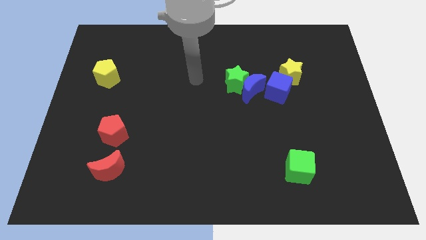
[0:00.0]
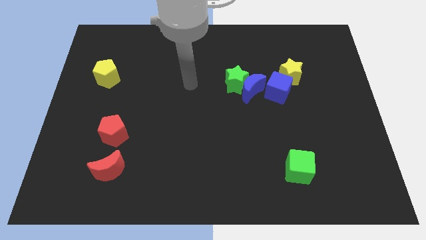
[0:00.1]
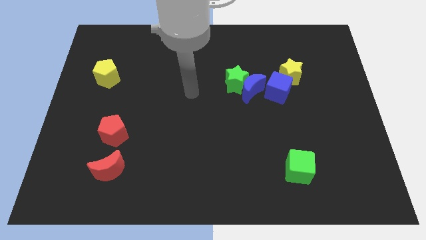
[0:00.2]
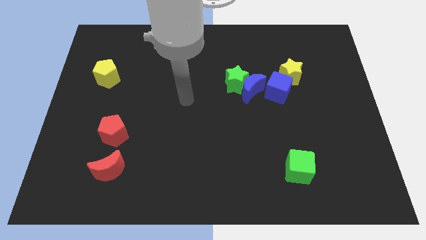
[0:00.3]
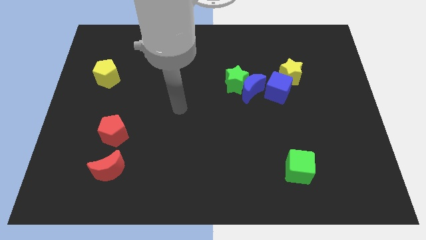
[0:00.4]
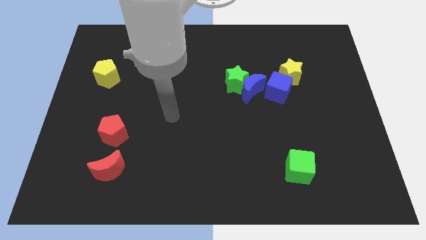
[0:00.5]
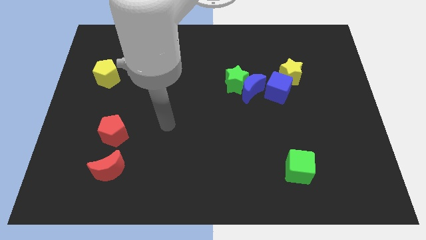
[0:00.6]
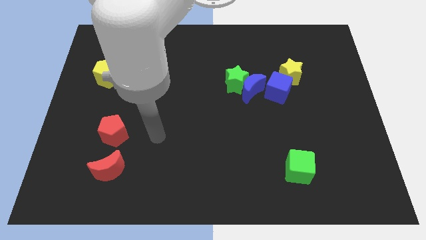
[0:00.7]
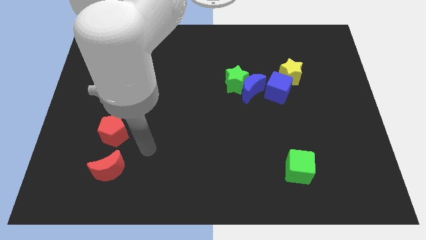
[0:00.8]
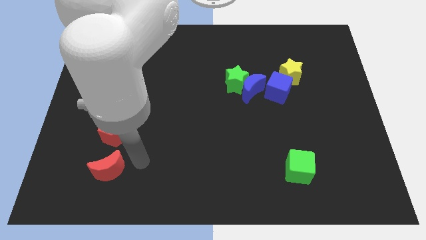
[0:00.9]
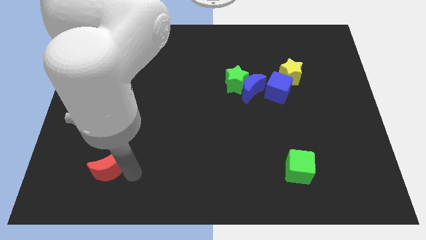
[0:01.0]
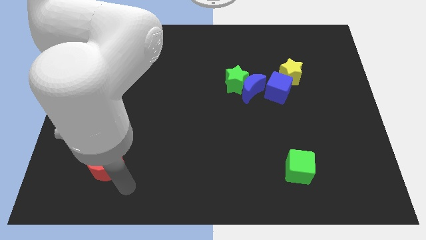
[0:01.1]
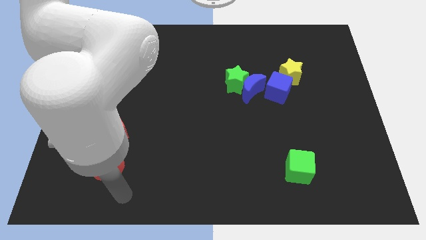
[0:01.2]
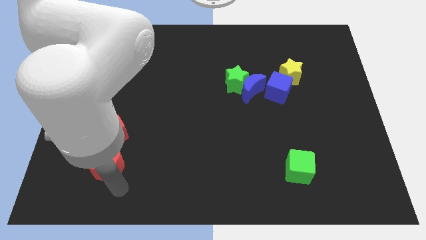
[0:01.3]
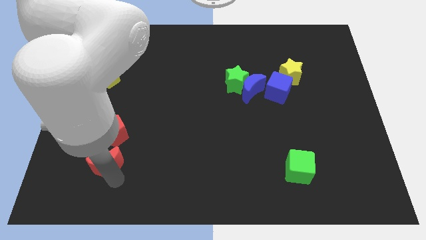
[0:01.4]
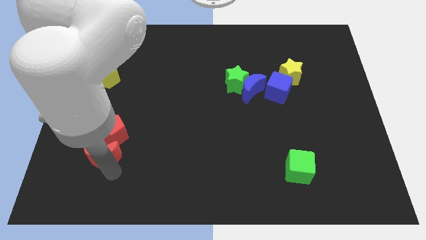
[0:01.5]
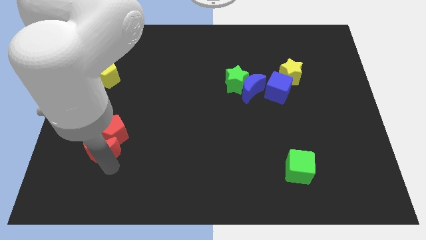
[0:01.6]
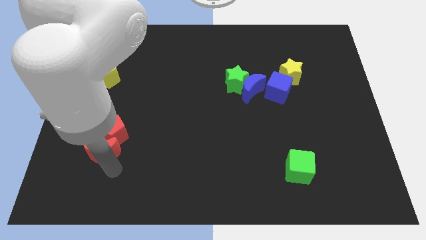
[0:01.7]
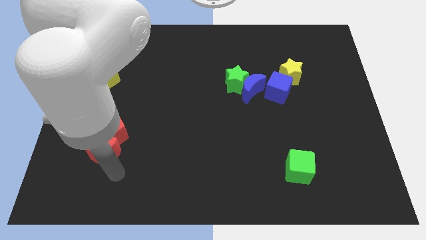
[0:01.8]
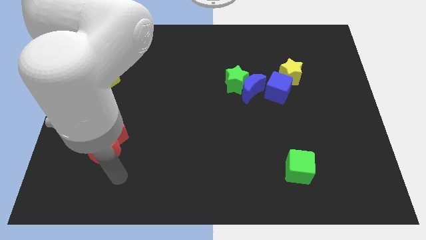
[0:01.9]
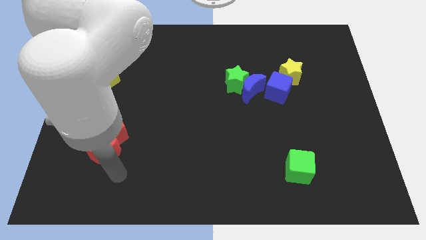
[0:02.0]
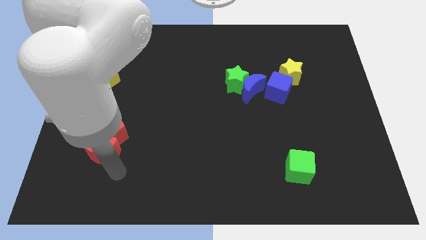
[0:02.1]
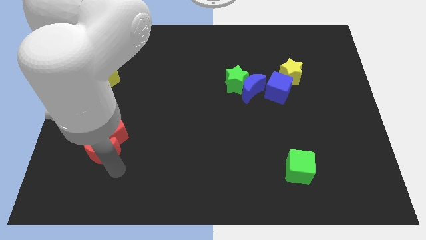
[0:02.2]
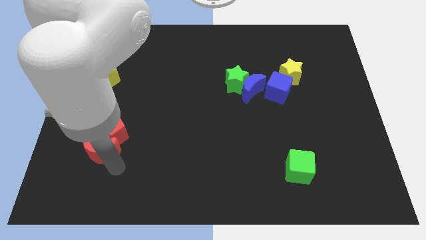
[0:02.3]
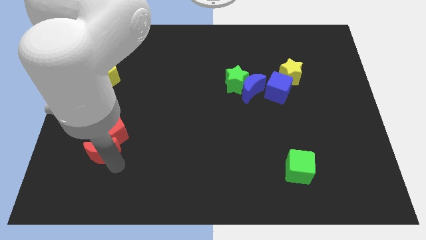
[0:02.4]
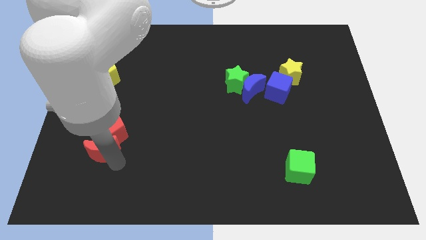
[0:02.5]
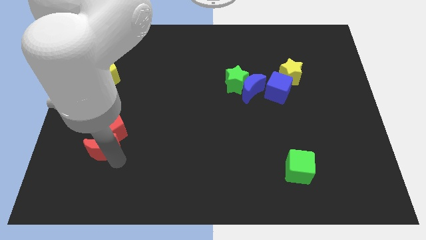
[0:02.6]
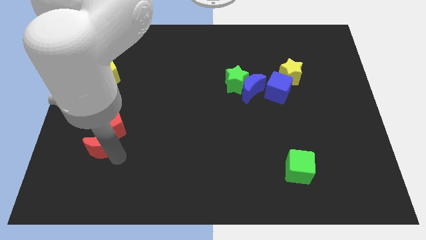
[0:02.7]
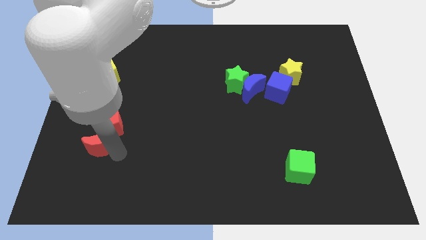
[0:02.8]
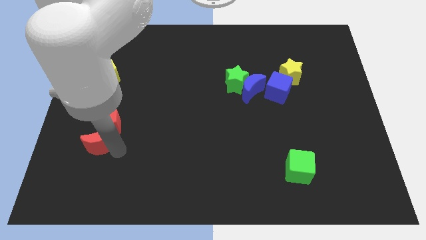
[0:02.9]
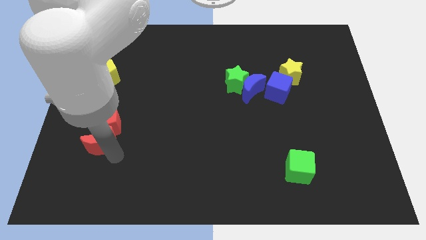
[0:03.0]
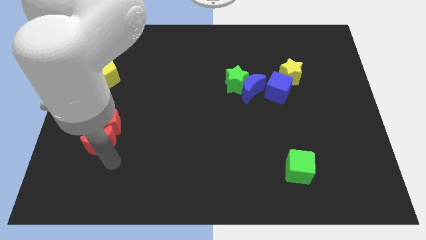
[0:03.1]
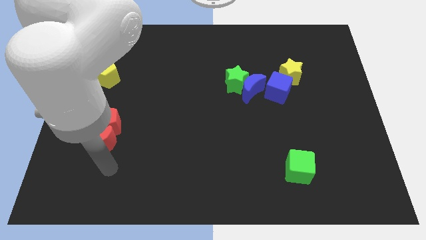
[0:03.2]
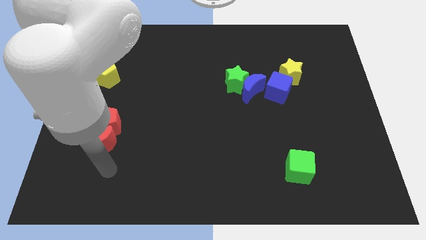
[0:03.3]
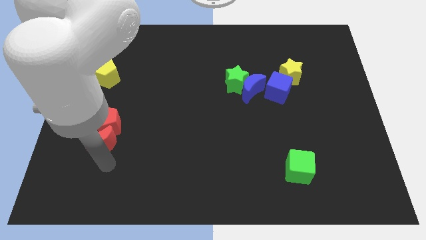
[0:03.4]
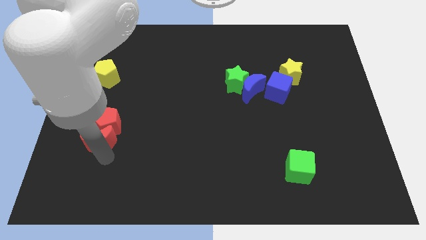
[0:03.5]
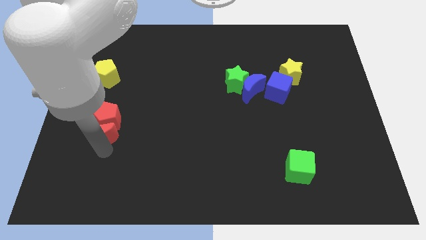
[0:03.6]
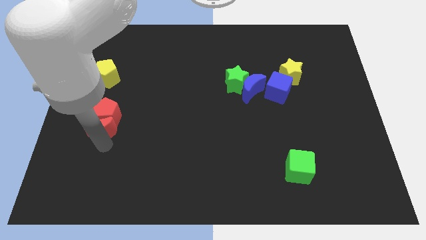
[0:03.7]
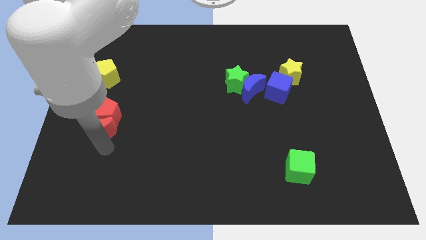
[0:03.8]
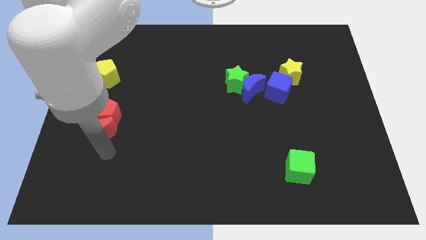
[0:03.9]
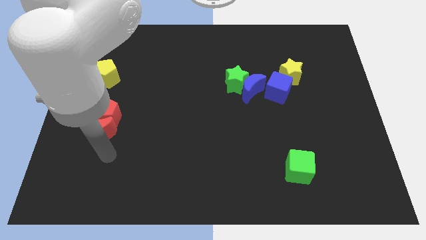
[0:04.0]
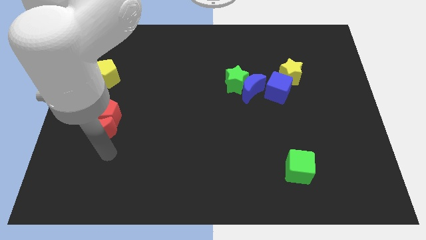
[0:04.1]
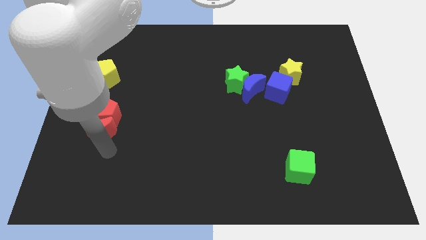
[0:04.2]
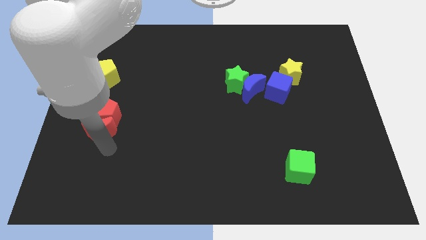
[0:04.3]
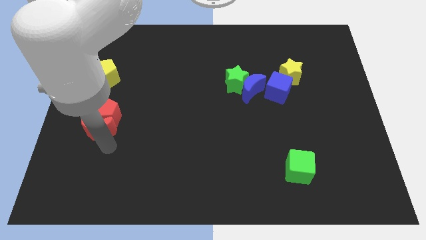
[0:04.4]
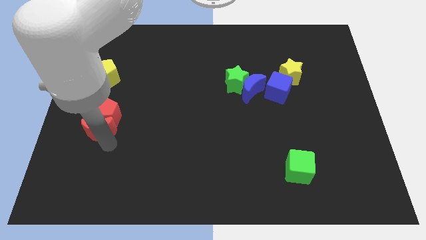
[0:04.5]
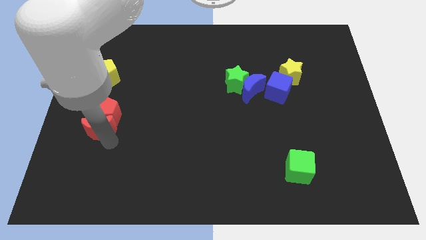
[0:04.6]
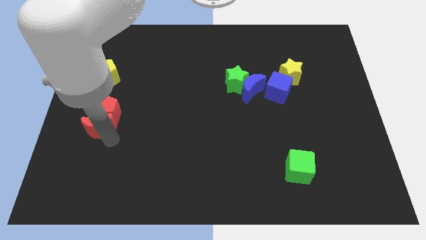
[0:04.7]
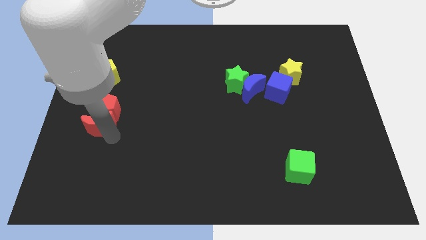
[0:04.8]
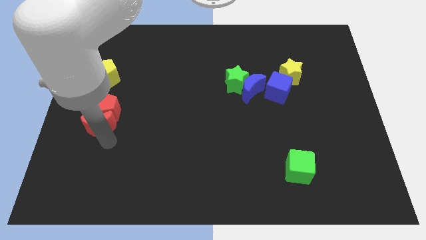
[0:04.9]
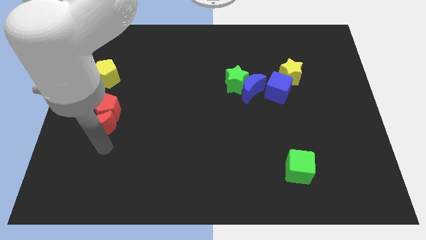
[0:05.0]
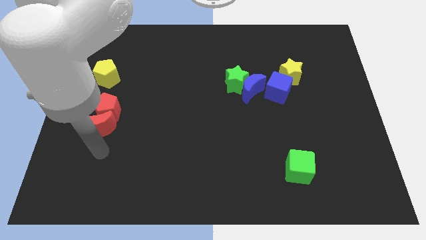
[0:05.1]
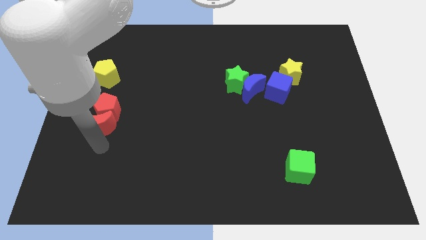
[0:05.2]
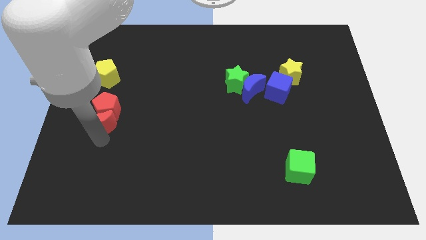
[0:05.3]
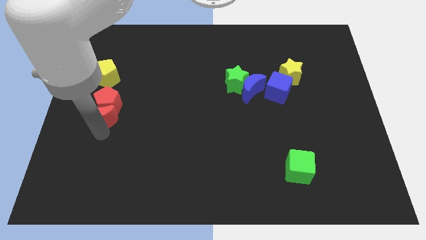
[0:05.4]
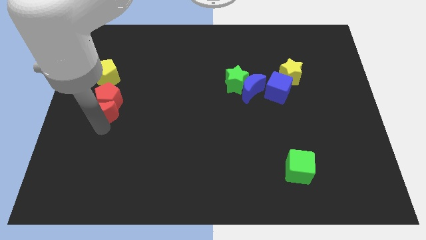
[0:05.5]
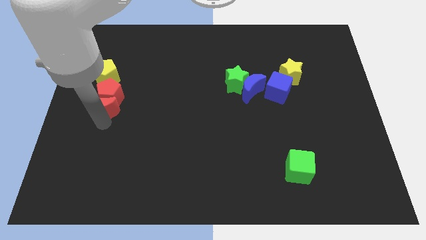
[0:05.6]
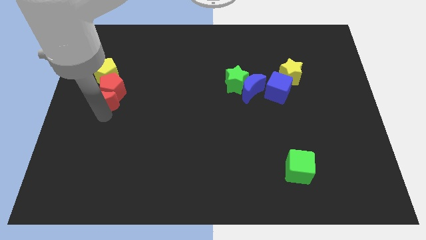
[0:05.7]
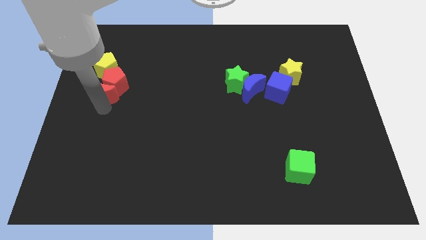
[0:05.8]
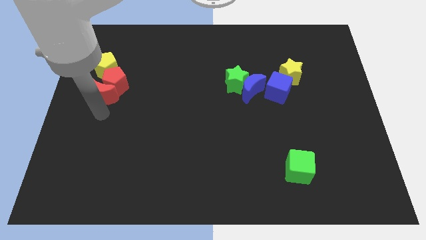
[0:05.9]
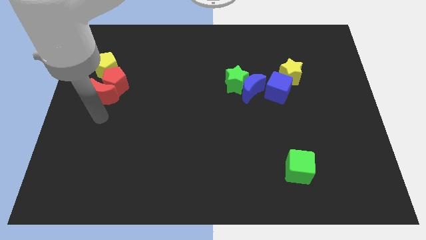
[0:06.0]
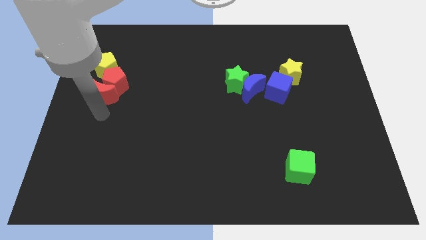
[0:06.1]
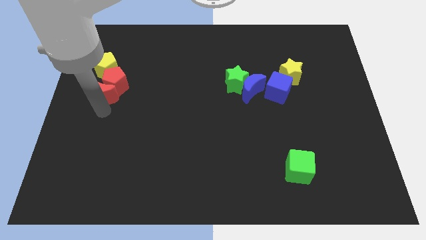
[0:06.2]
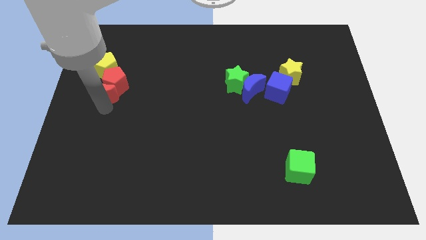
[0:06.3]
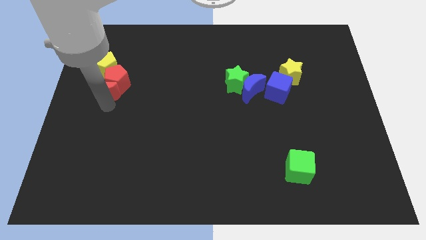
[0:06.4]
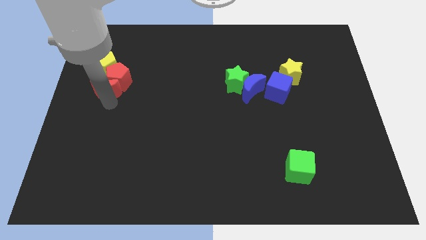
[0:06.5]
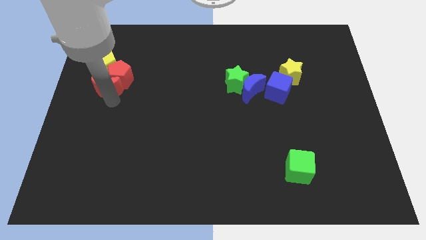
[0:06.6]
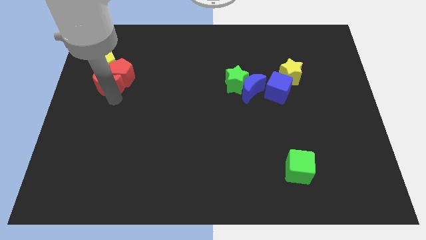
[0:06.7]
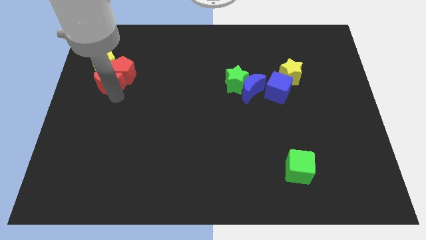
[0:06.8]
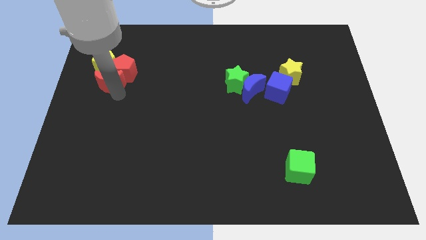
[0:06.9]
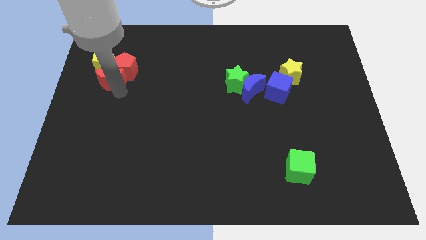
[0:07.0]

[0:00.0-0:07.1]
put the red moon next to the yellow pentagon
